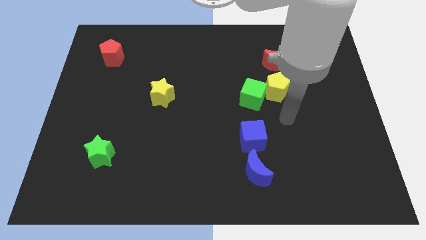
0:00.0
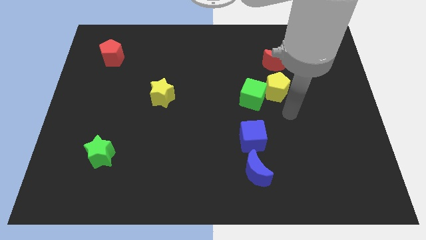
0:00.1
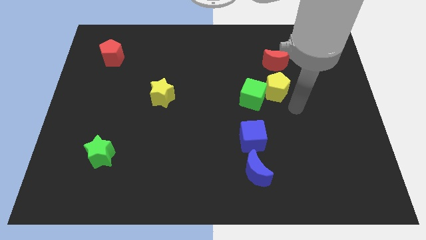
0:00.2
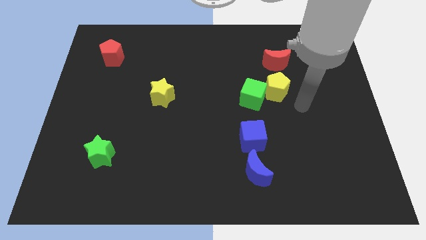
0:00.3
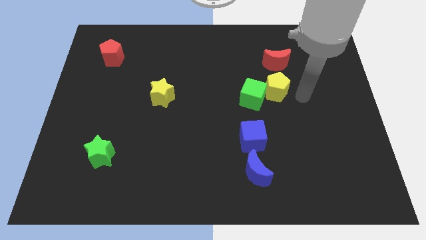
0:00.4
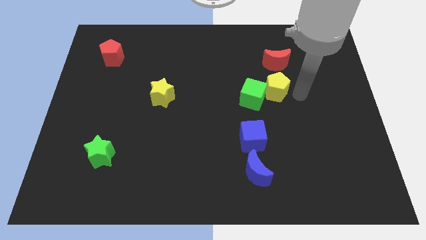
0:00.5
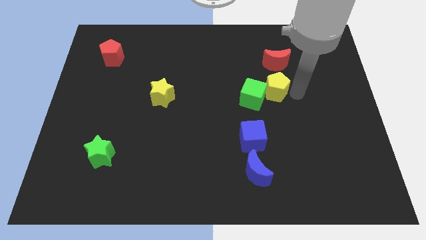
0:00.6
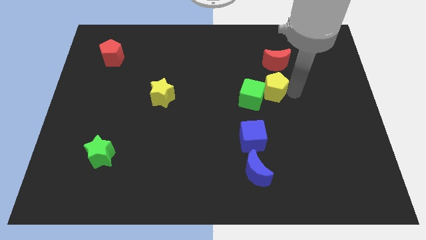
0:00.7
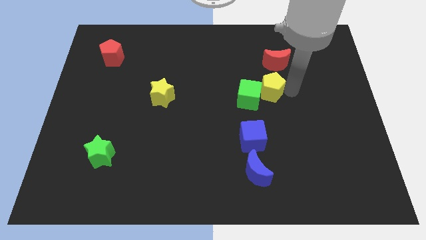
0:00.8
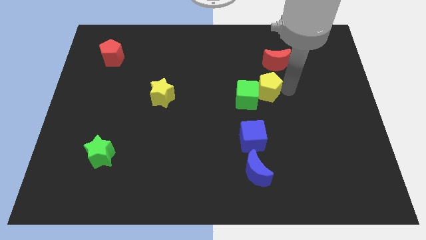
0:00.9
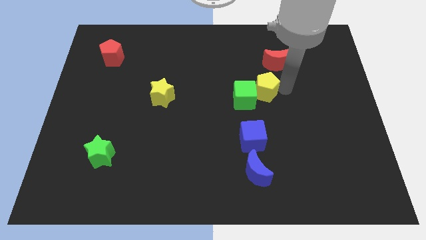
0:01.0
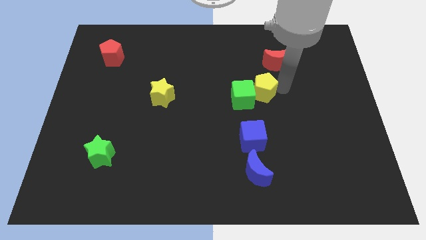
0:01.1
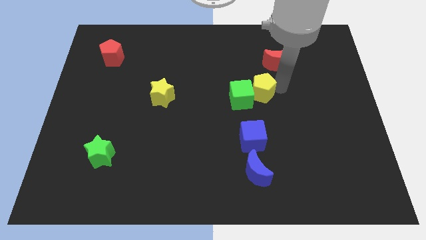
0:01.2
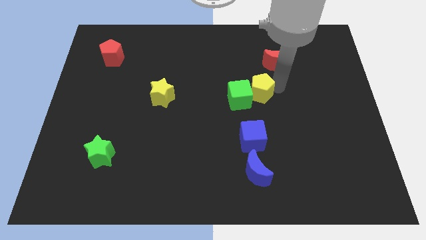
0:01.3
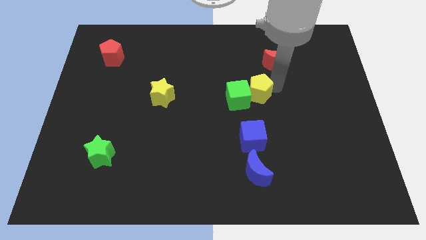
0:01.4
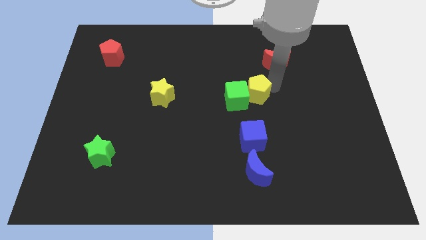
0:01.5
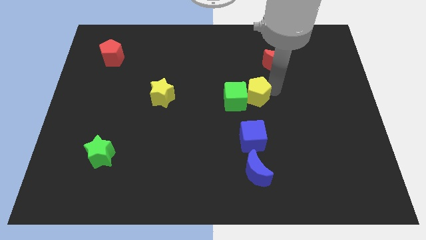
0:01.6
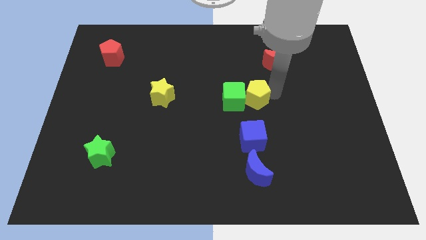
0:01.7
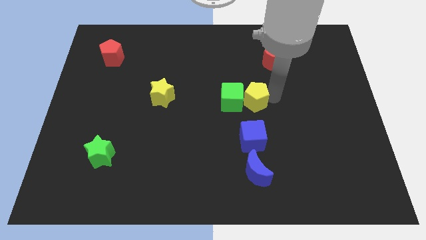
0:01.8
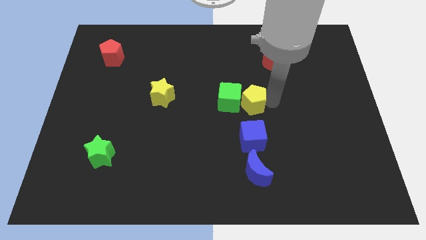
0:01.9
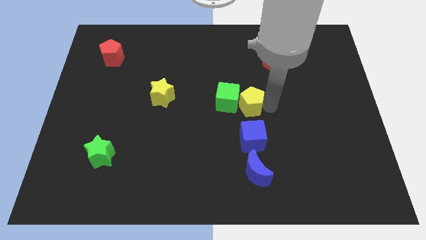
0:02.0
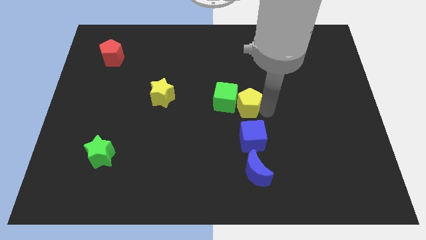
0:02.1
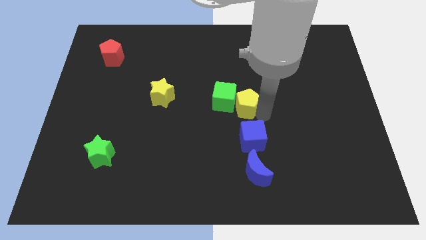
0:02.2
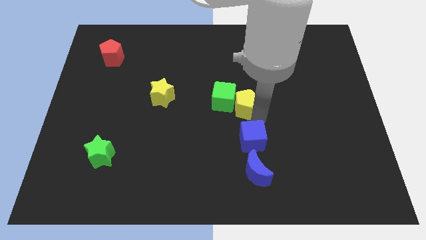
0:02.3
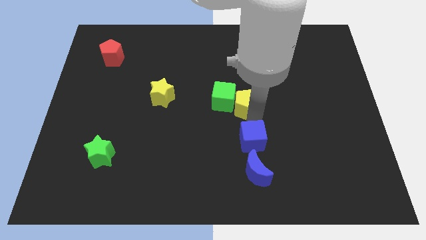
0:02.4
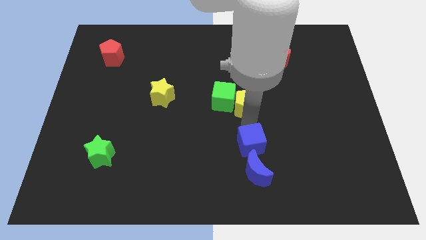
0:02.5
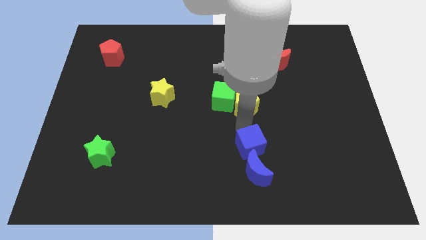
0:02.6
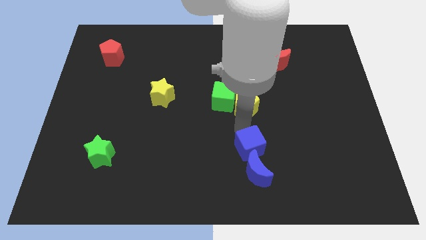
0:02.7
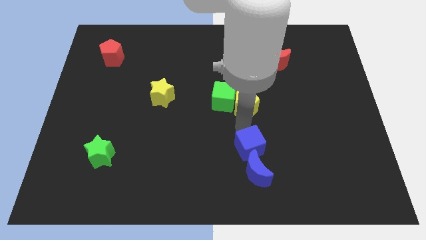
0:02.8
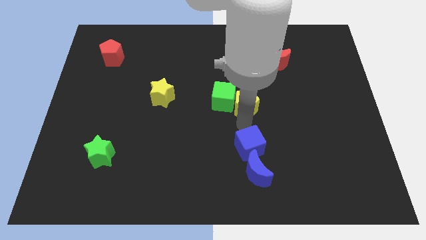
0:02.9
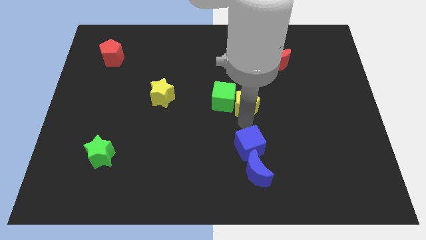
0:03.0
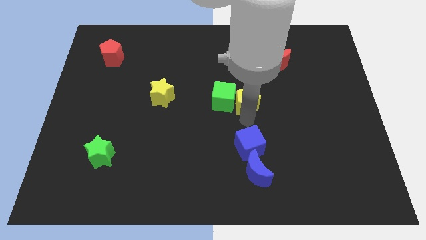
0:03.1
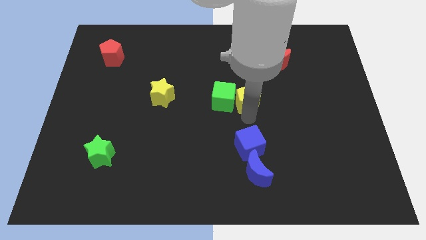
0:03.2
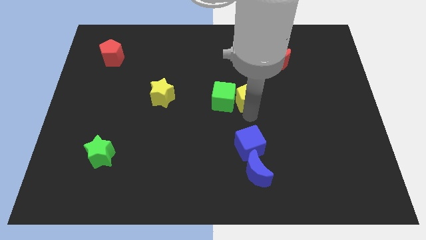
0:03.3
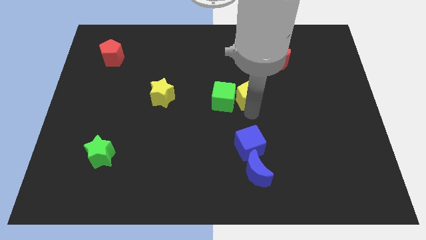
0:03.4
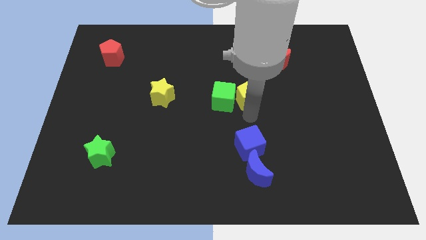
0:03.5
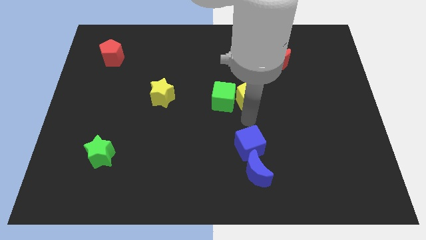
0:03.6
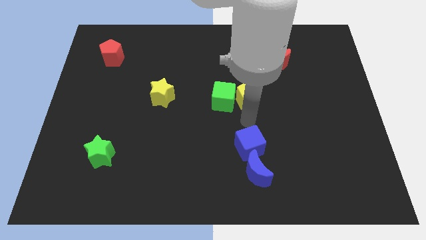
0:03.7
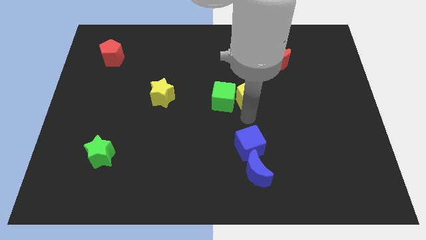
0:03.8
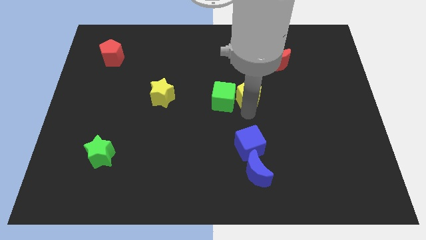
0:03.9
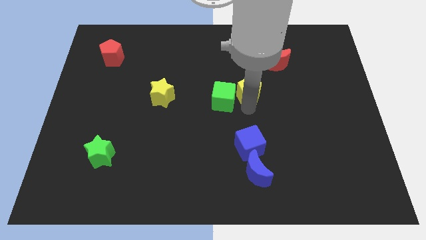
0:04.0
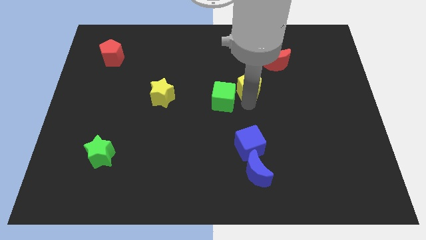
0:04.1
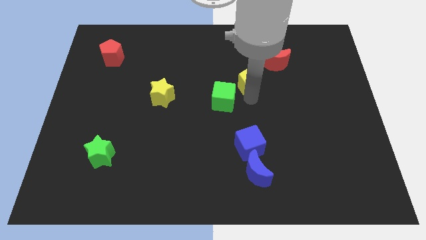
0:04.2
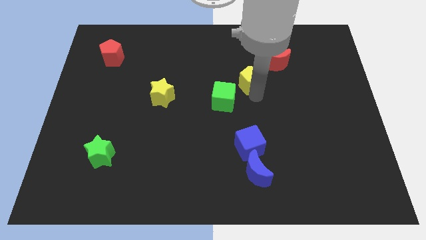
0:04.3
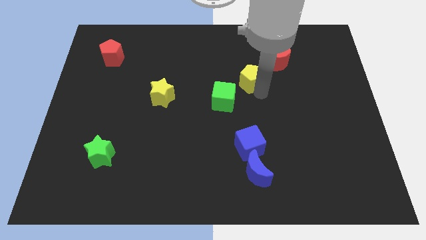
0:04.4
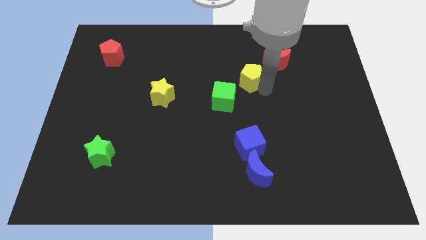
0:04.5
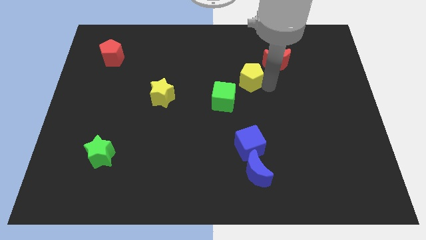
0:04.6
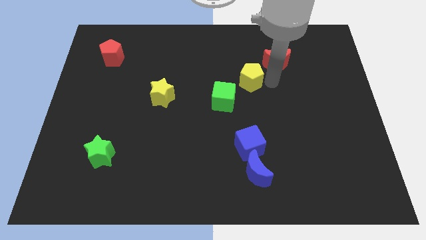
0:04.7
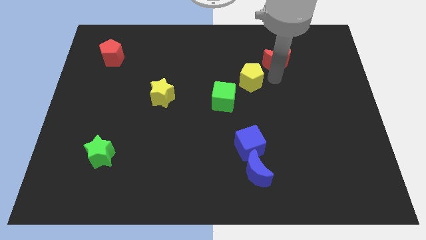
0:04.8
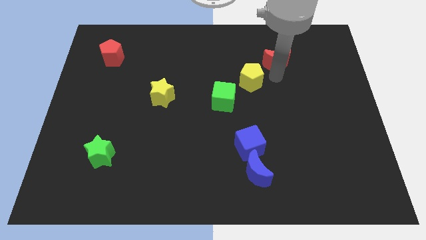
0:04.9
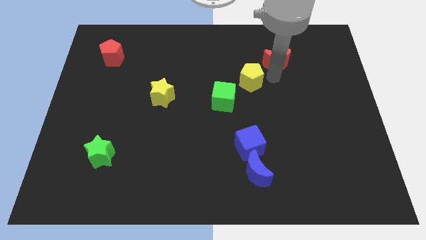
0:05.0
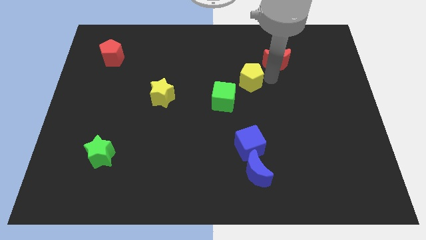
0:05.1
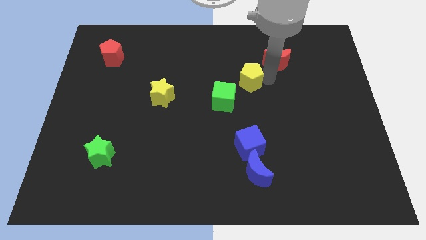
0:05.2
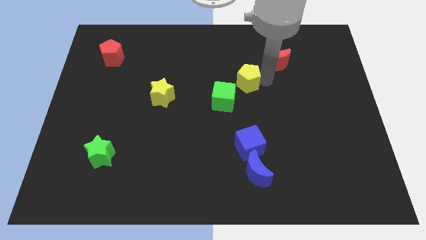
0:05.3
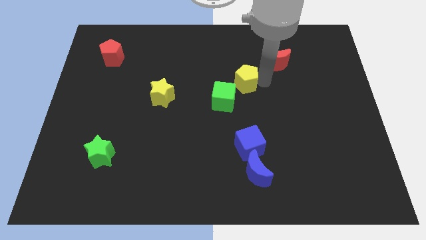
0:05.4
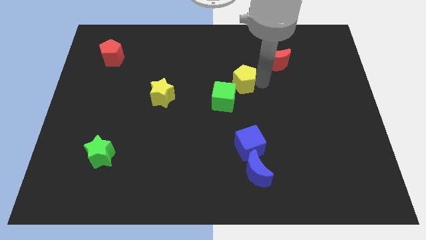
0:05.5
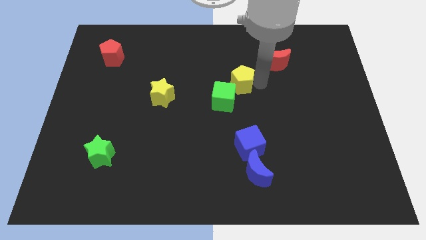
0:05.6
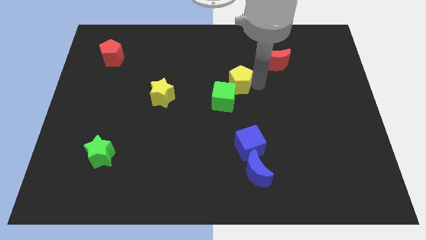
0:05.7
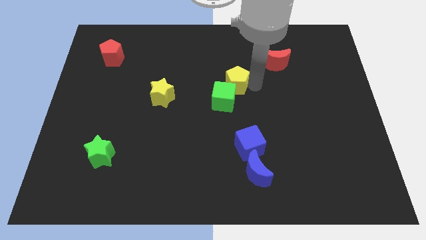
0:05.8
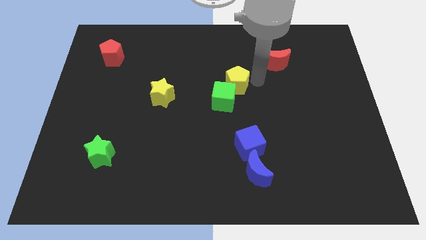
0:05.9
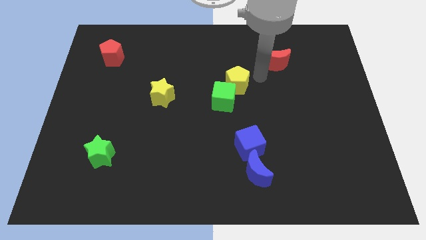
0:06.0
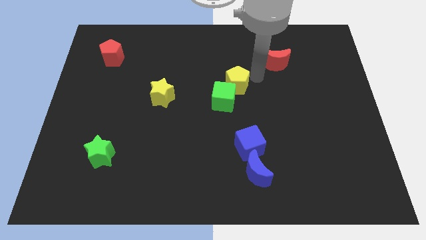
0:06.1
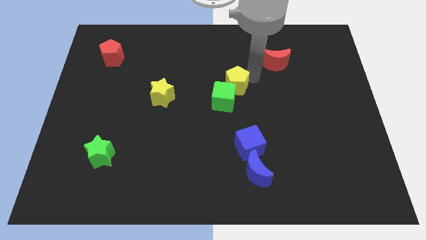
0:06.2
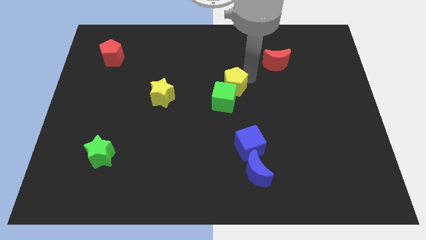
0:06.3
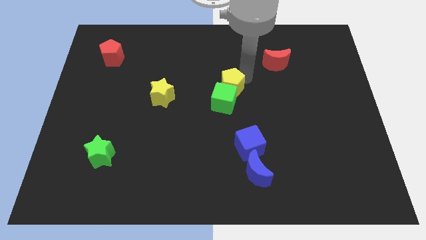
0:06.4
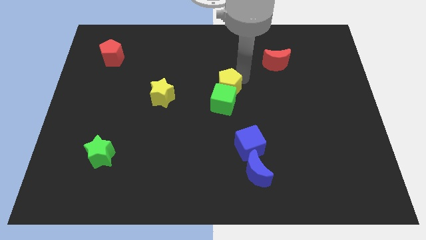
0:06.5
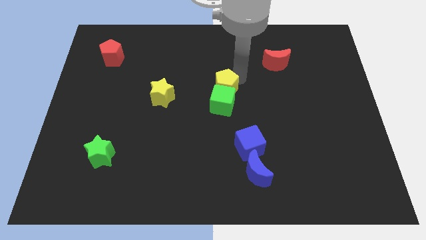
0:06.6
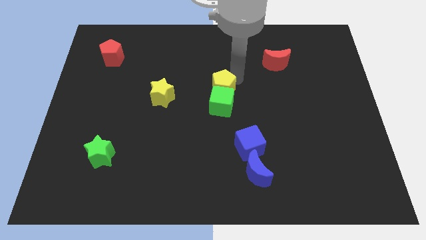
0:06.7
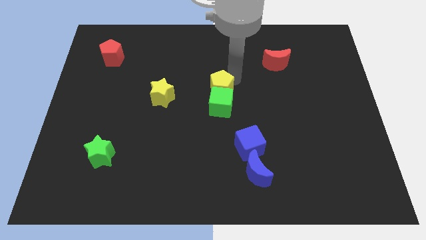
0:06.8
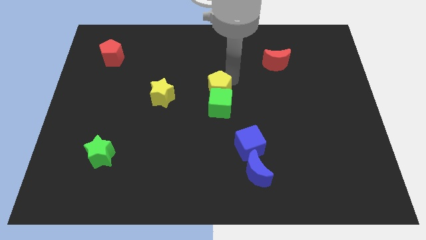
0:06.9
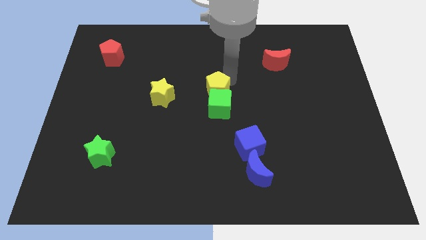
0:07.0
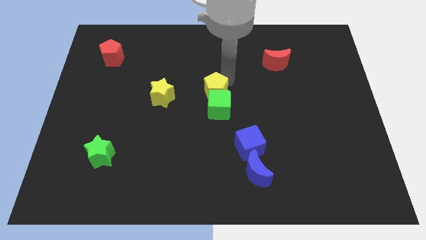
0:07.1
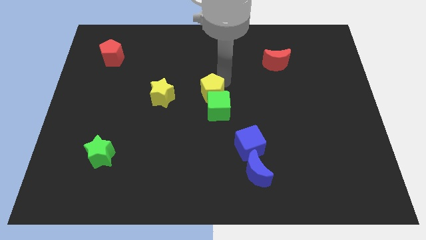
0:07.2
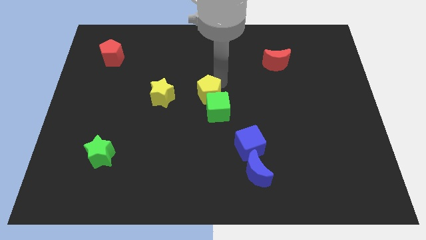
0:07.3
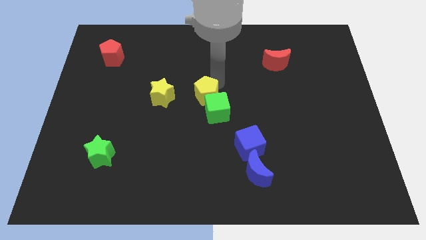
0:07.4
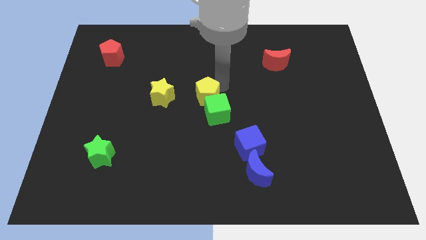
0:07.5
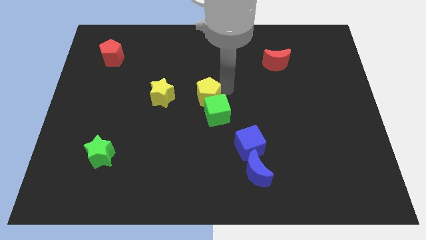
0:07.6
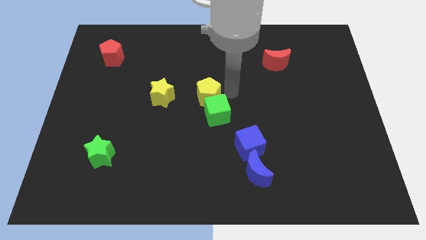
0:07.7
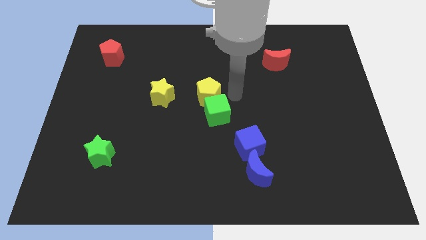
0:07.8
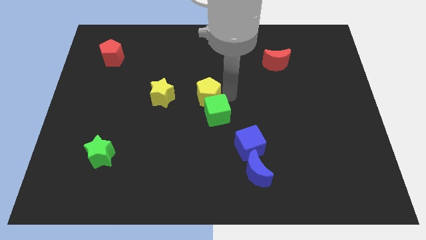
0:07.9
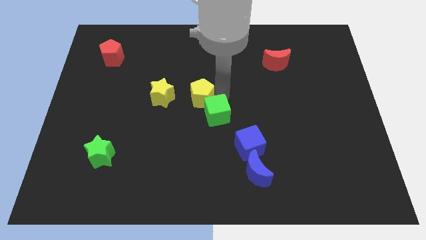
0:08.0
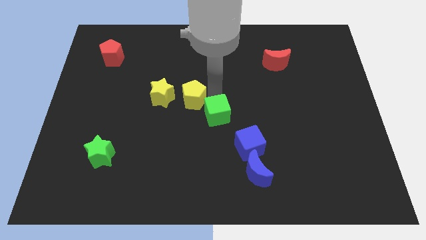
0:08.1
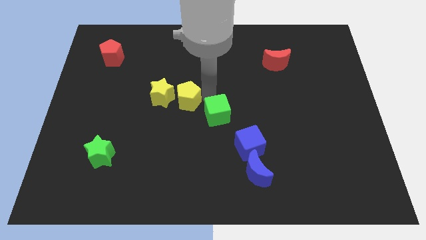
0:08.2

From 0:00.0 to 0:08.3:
put the yellow pentagon towards the yellow star
